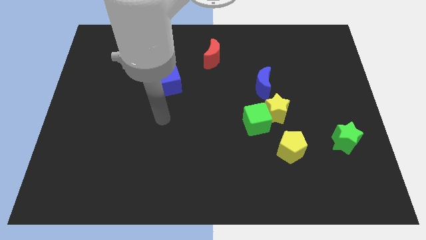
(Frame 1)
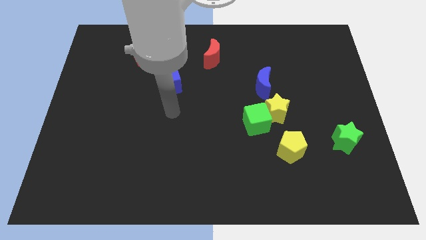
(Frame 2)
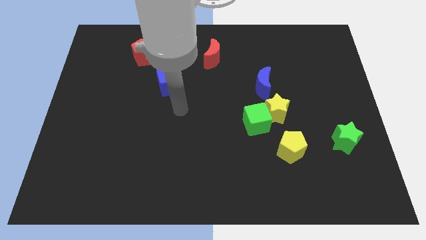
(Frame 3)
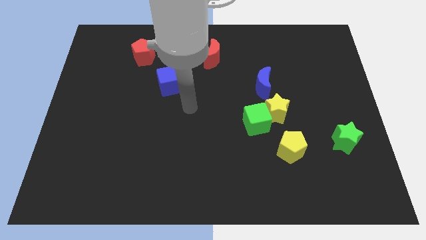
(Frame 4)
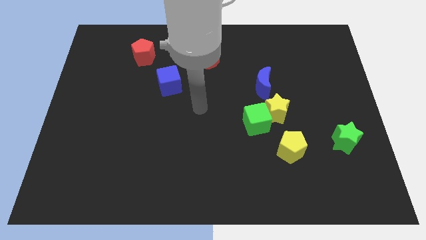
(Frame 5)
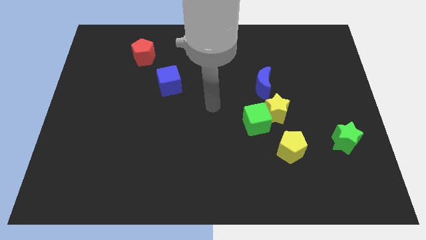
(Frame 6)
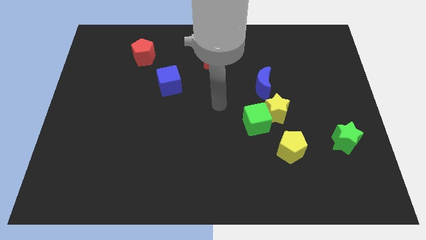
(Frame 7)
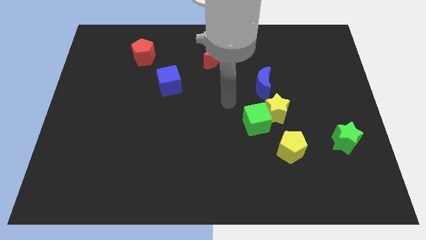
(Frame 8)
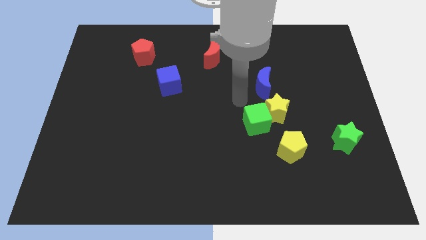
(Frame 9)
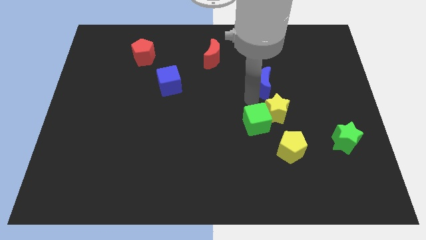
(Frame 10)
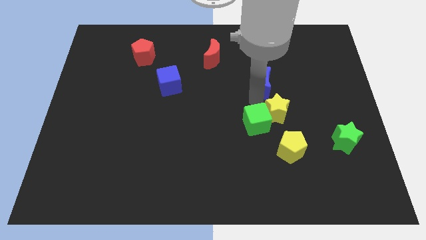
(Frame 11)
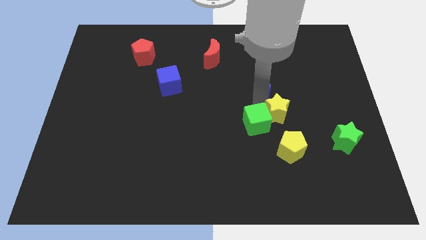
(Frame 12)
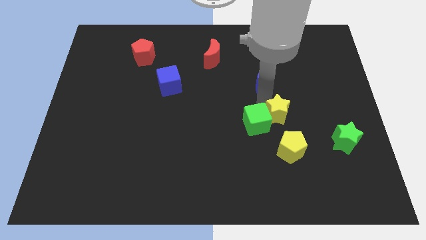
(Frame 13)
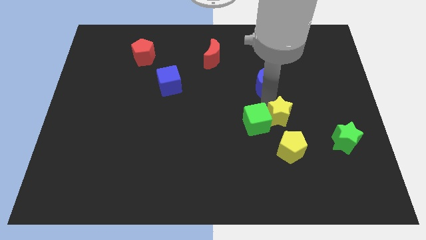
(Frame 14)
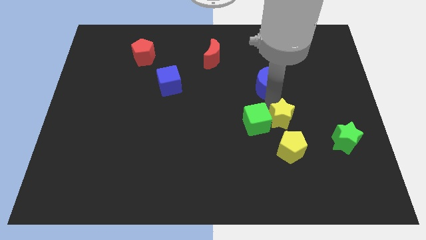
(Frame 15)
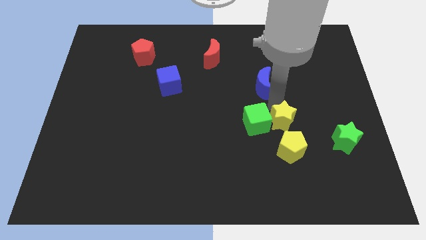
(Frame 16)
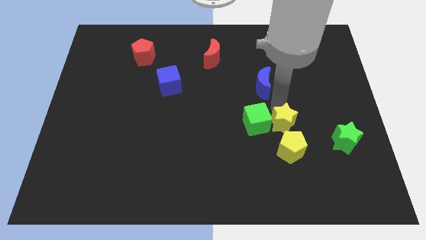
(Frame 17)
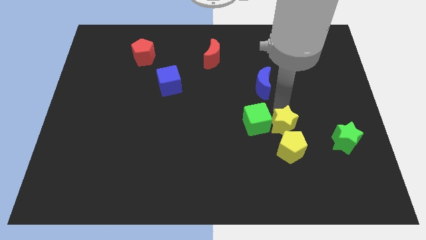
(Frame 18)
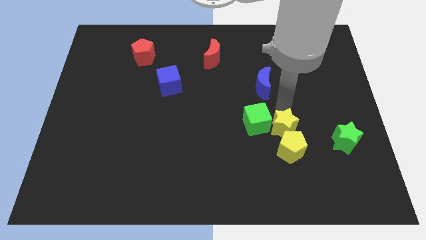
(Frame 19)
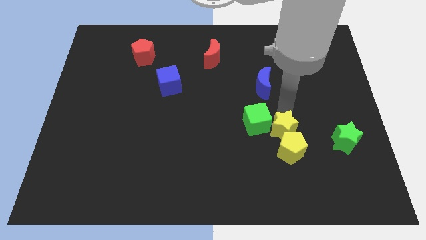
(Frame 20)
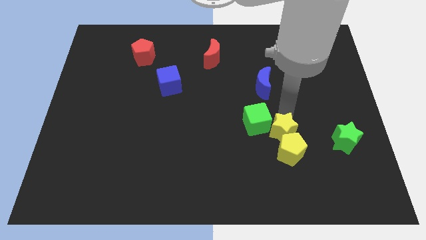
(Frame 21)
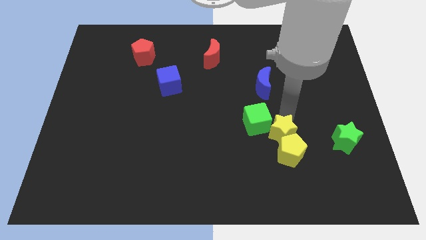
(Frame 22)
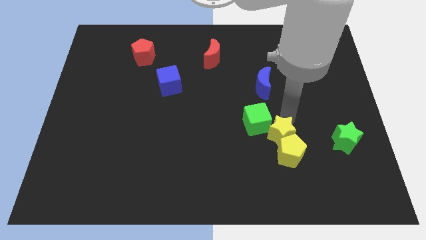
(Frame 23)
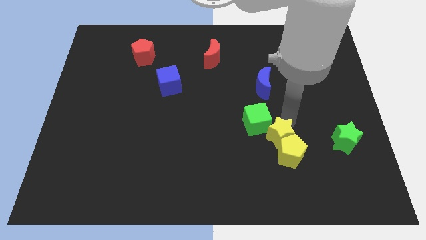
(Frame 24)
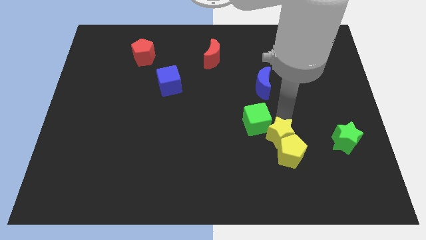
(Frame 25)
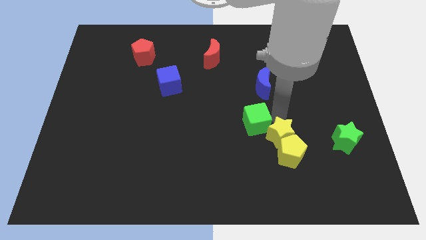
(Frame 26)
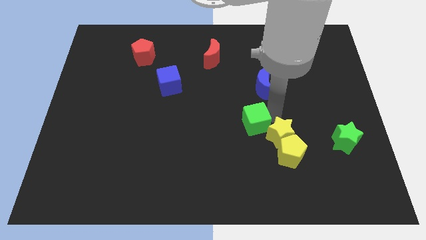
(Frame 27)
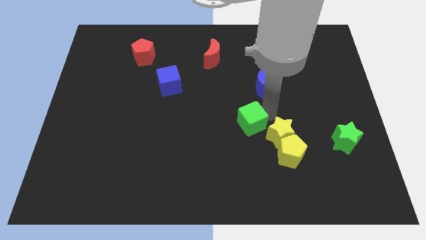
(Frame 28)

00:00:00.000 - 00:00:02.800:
pull the yellow star apart from the green cube and blue moon

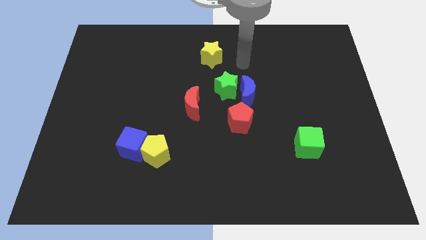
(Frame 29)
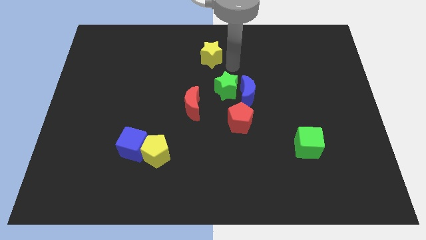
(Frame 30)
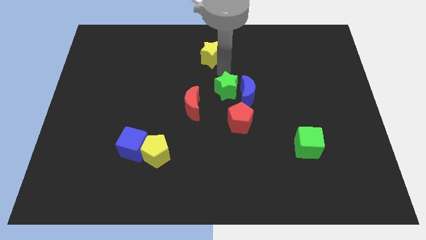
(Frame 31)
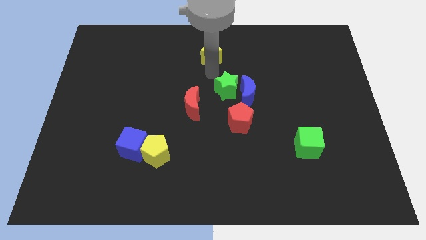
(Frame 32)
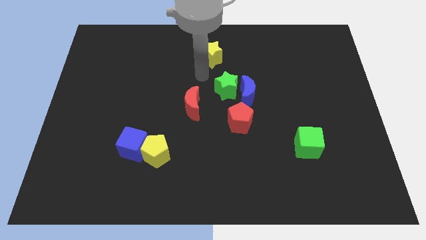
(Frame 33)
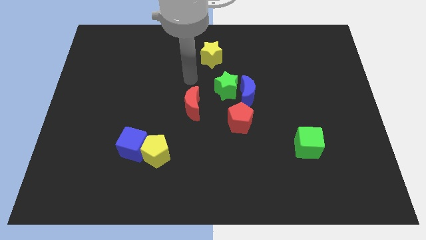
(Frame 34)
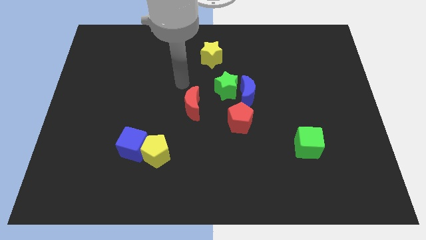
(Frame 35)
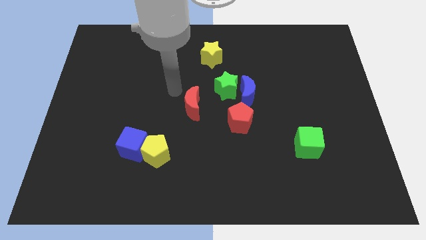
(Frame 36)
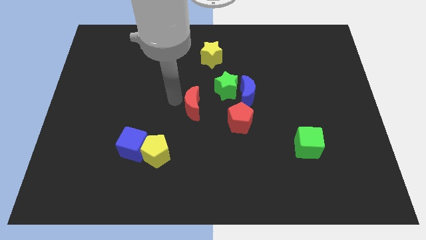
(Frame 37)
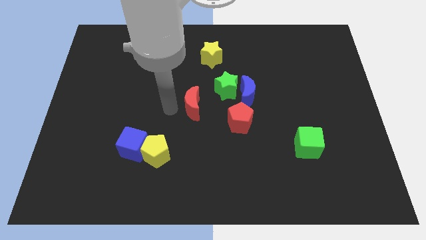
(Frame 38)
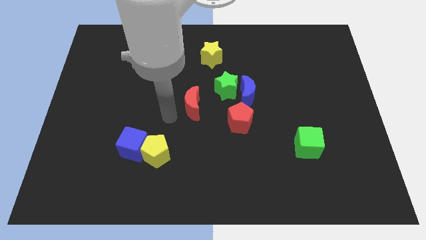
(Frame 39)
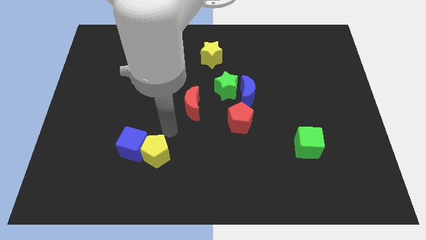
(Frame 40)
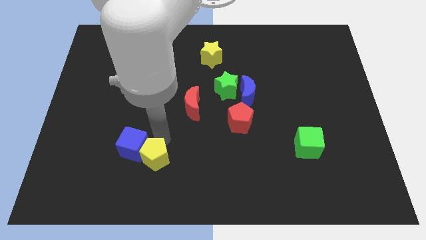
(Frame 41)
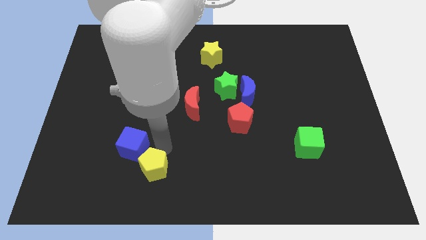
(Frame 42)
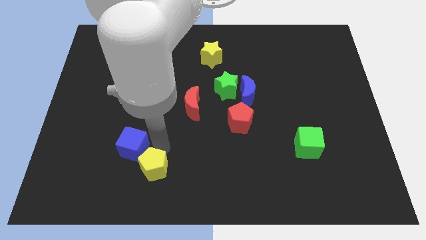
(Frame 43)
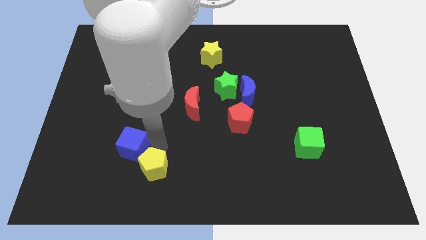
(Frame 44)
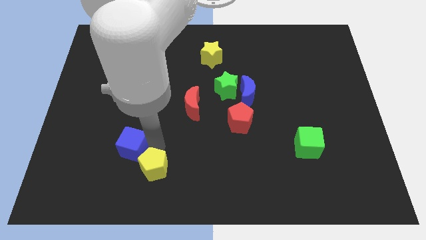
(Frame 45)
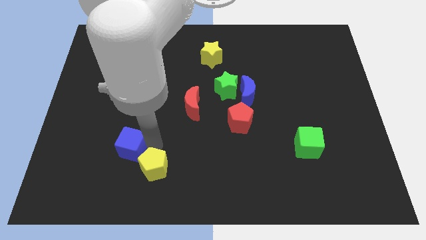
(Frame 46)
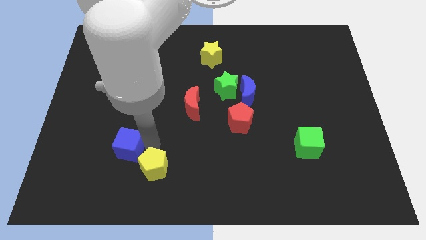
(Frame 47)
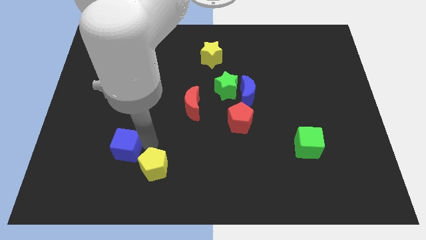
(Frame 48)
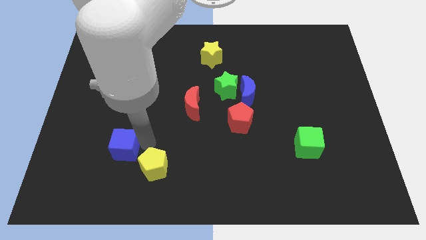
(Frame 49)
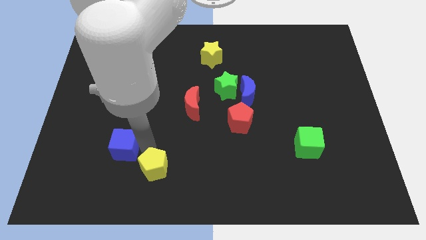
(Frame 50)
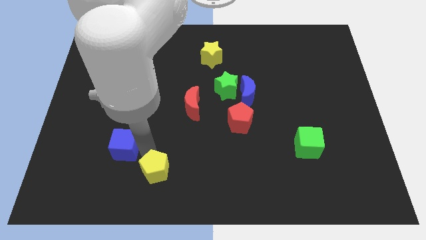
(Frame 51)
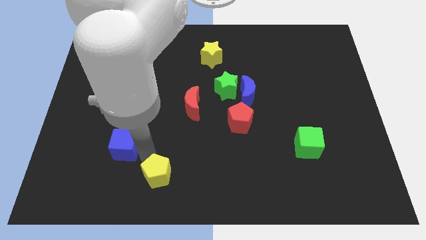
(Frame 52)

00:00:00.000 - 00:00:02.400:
separate the blue cube from the yellow pentagon

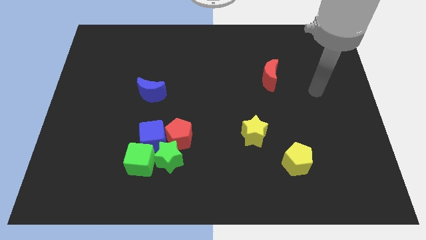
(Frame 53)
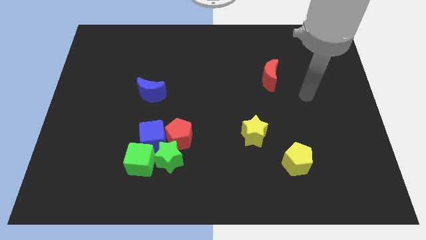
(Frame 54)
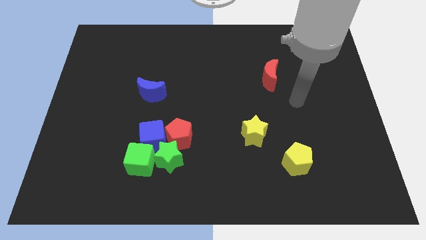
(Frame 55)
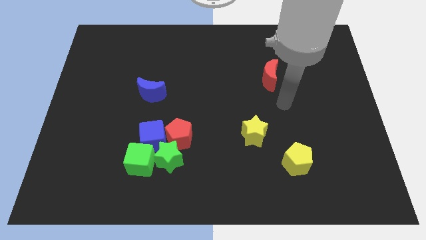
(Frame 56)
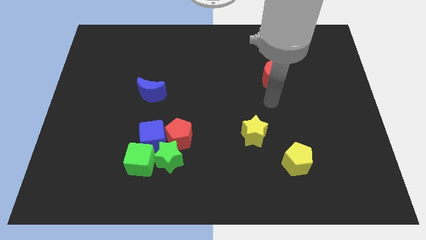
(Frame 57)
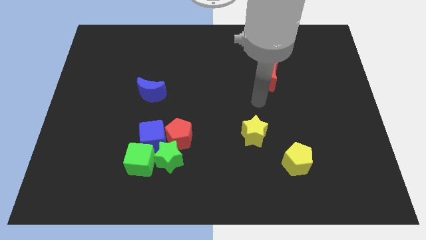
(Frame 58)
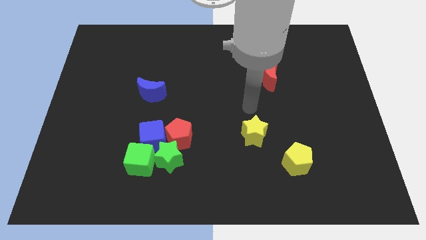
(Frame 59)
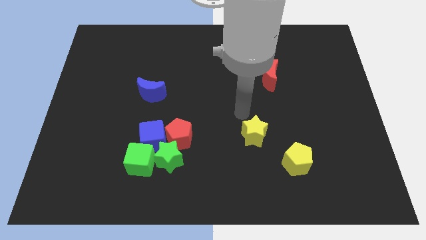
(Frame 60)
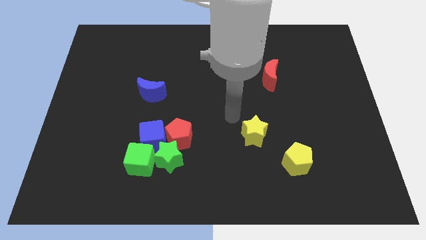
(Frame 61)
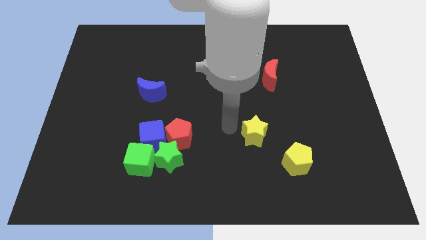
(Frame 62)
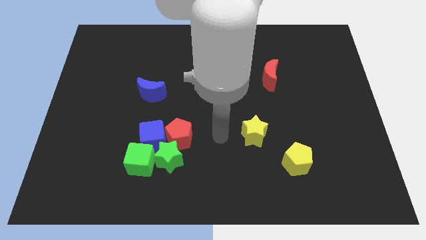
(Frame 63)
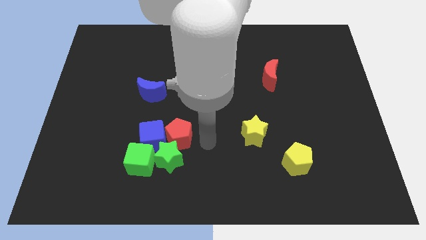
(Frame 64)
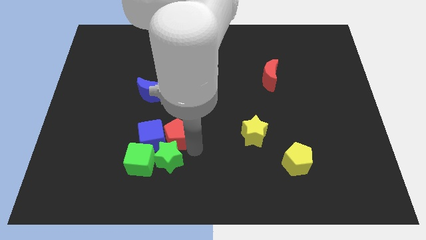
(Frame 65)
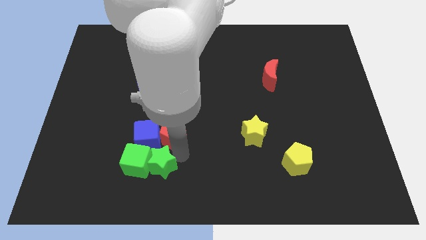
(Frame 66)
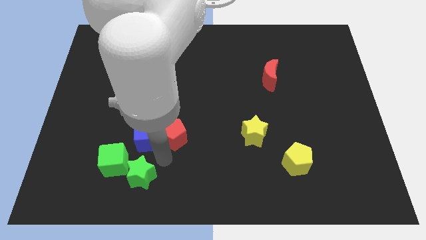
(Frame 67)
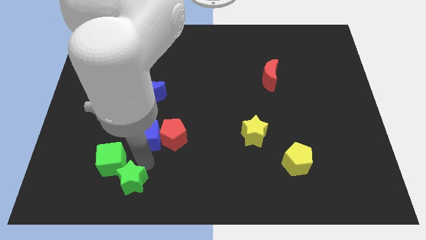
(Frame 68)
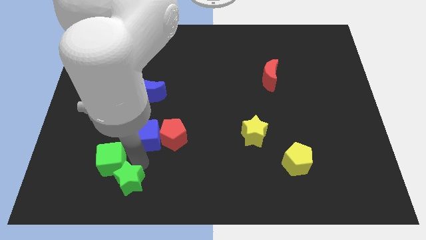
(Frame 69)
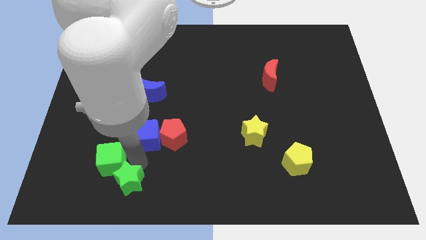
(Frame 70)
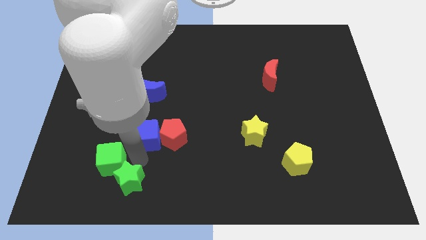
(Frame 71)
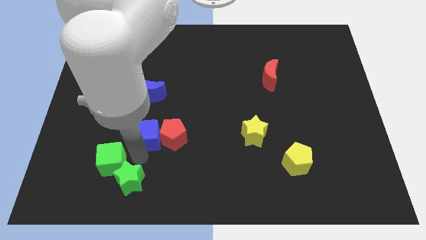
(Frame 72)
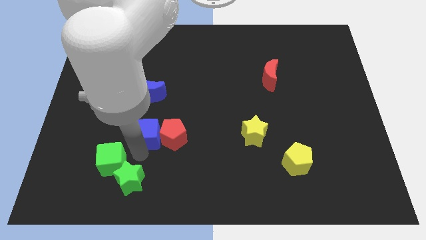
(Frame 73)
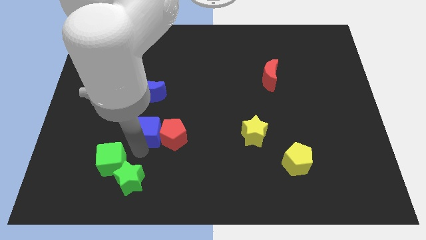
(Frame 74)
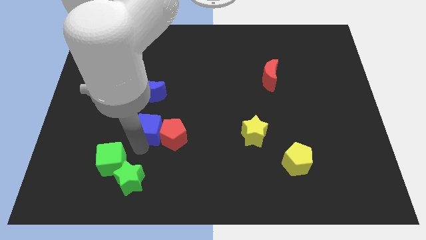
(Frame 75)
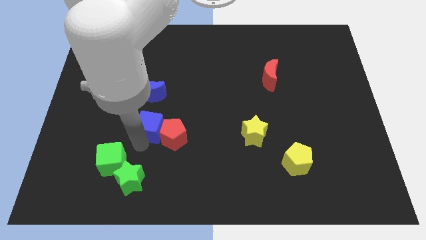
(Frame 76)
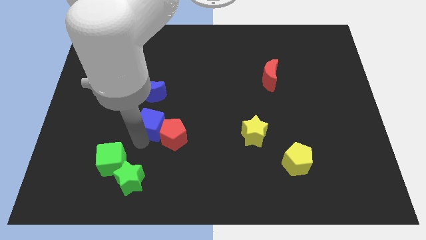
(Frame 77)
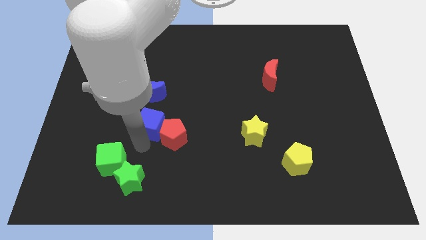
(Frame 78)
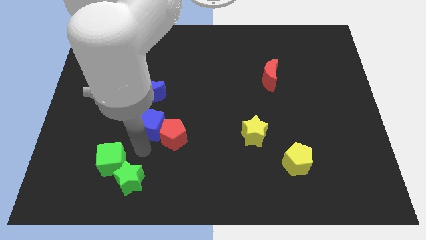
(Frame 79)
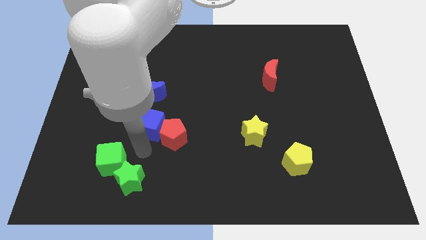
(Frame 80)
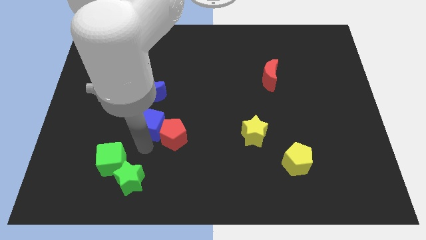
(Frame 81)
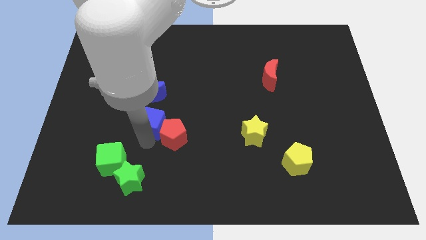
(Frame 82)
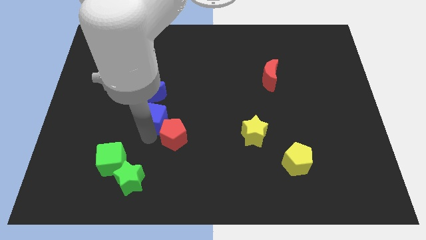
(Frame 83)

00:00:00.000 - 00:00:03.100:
pull the blue cube apart from the red pentagon, green cube, and green star

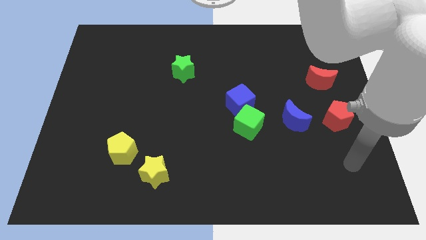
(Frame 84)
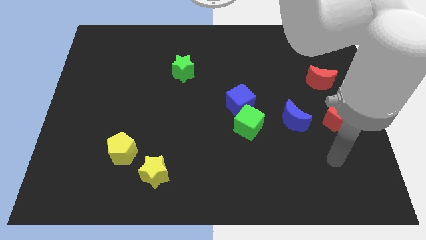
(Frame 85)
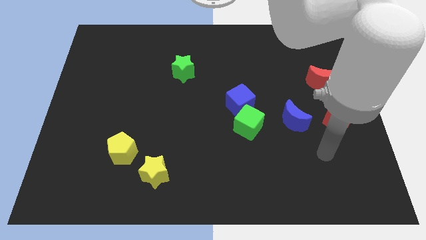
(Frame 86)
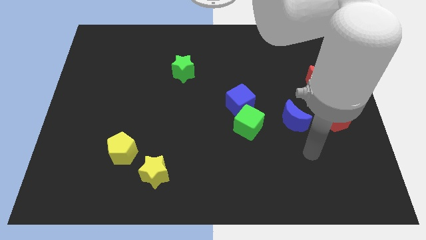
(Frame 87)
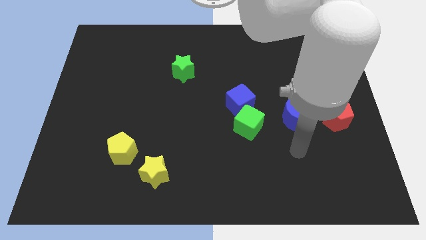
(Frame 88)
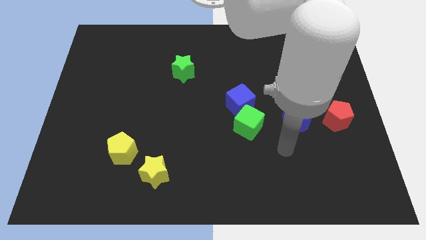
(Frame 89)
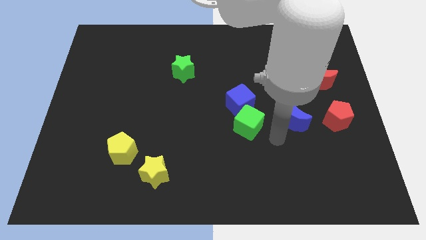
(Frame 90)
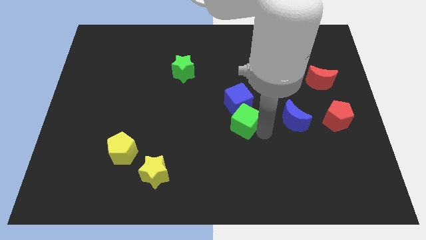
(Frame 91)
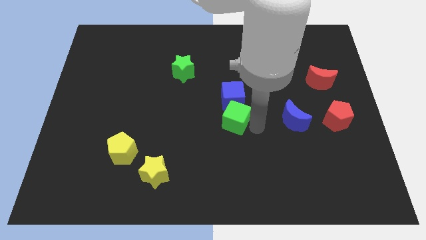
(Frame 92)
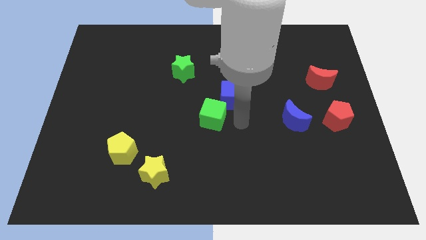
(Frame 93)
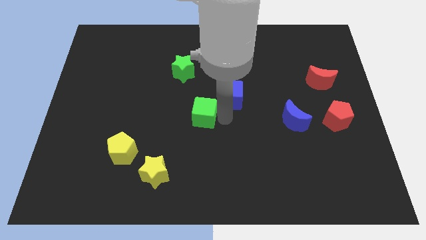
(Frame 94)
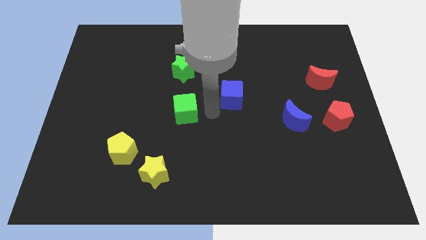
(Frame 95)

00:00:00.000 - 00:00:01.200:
move the blue cube away from the green cube
